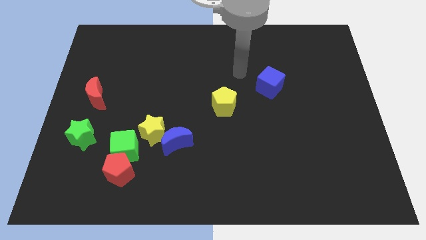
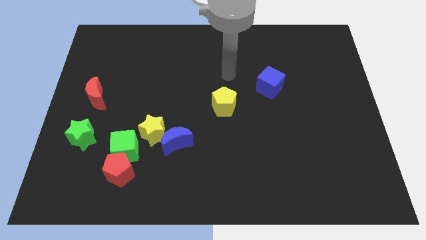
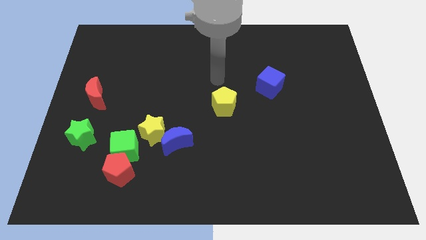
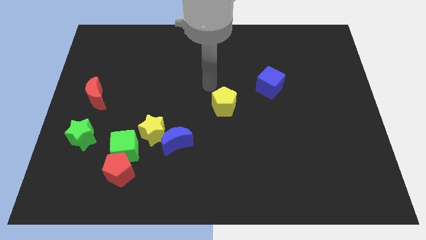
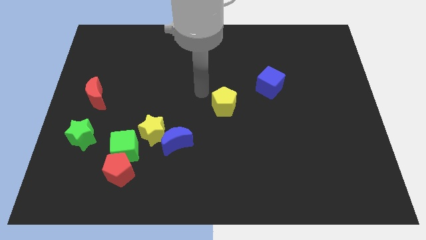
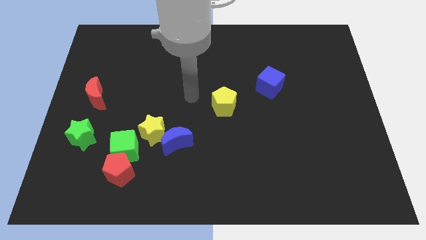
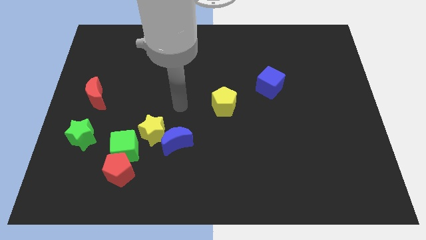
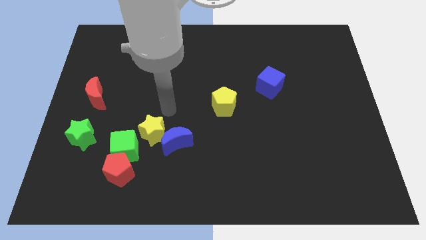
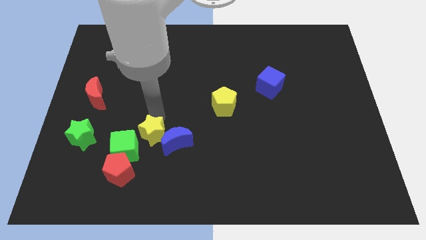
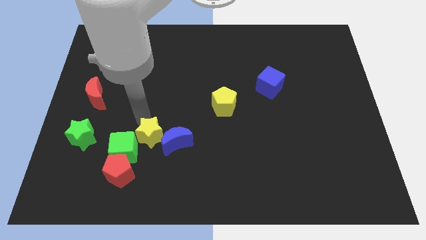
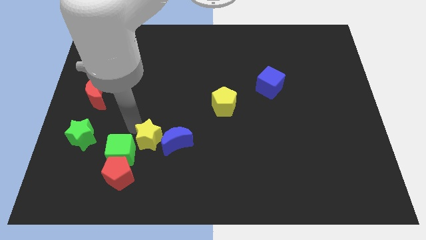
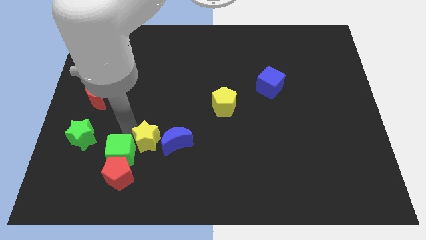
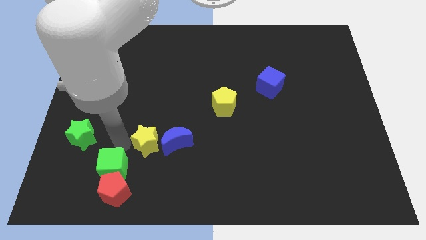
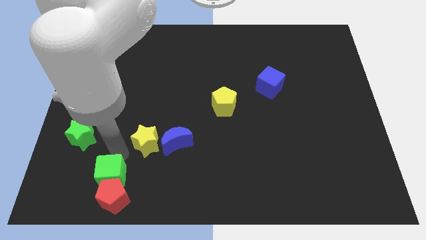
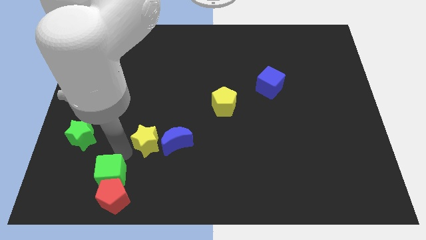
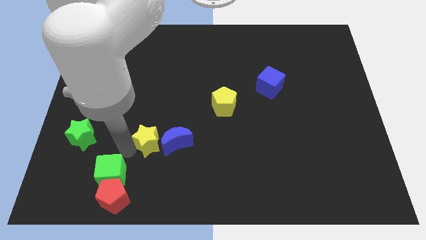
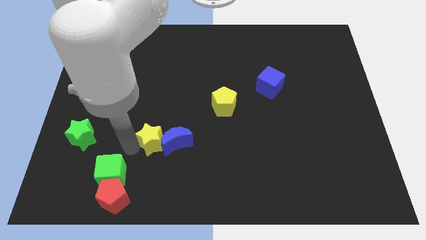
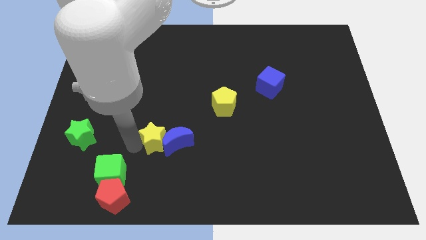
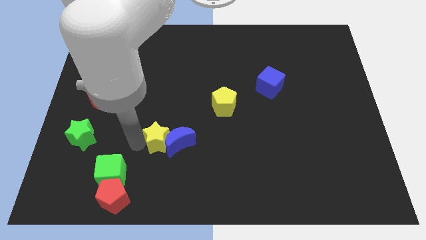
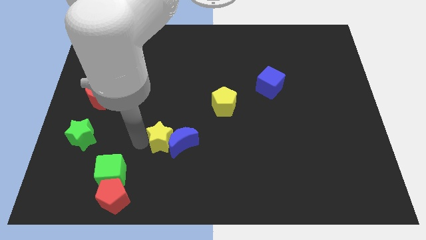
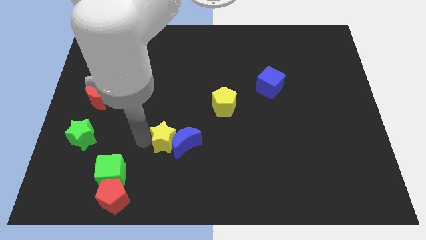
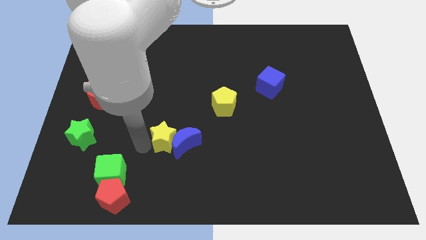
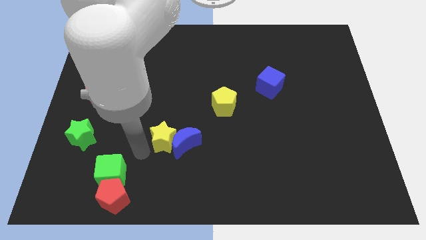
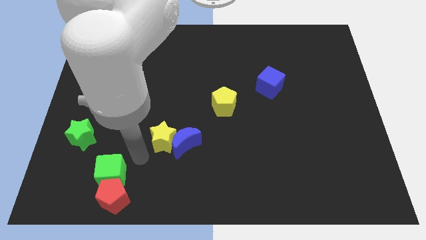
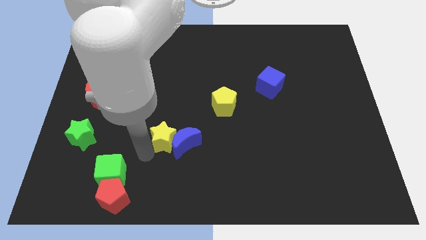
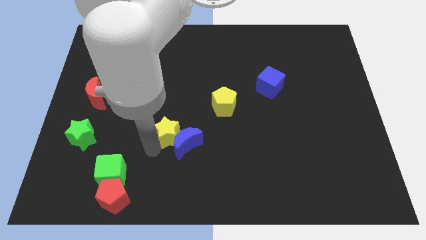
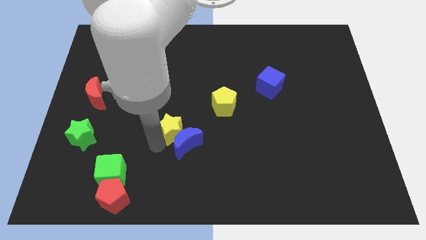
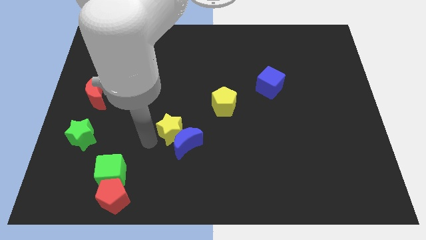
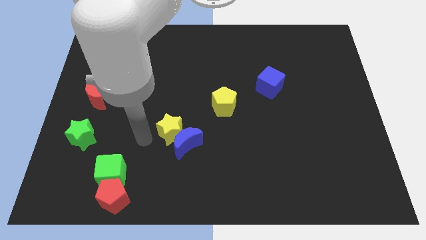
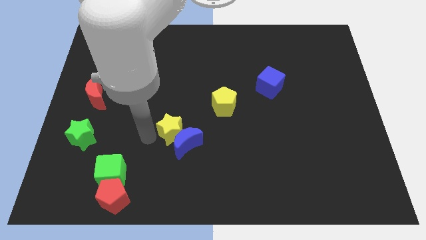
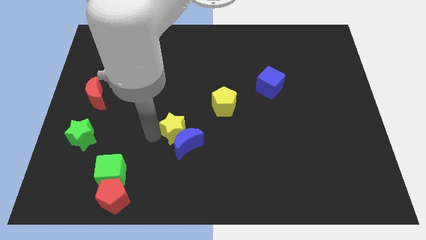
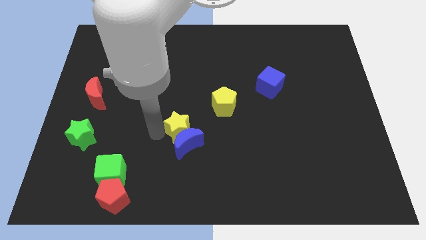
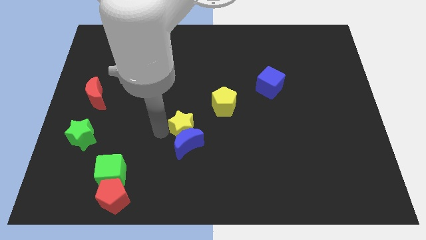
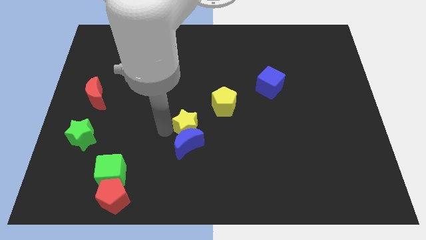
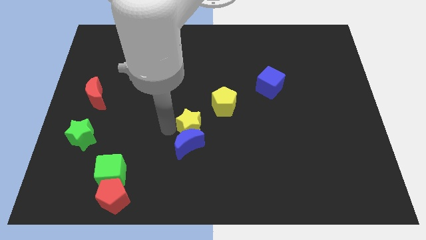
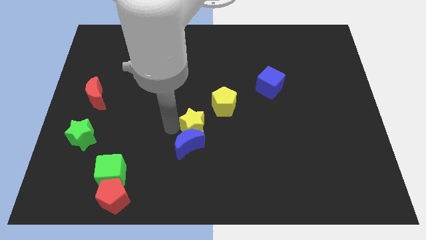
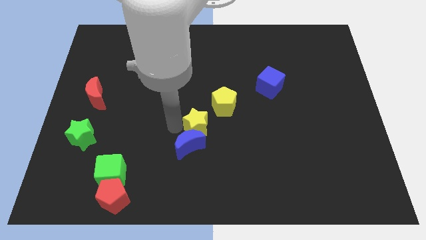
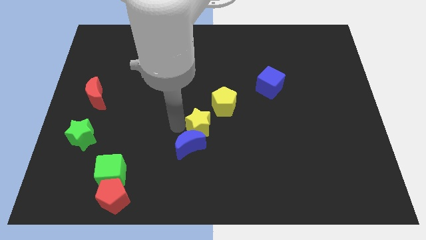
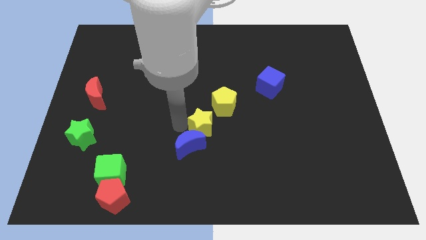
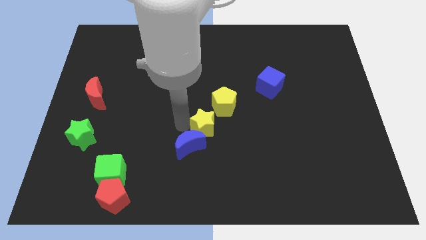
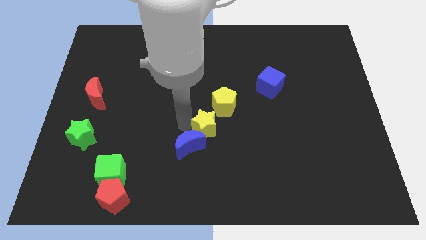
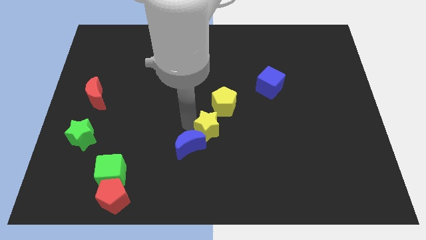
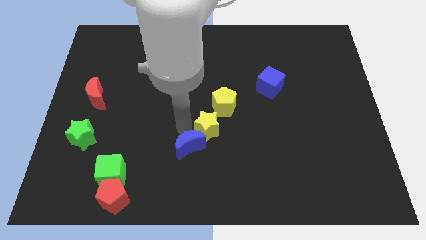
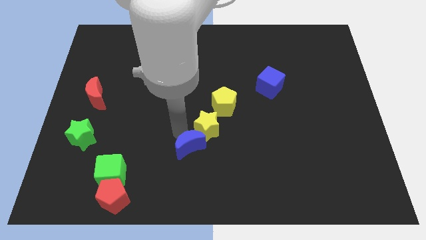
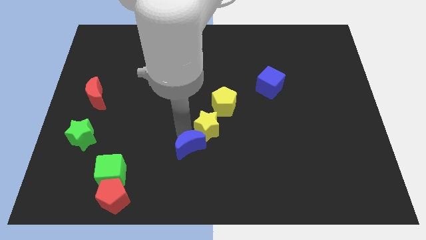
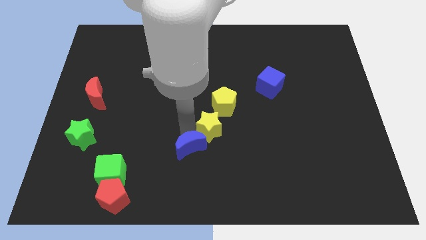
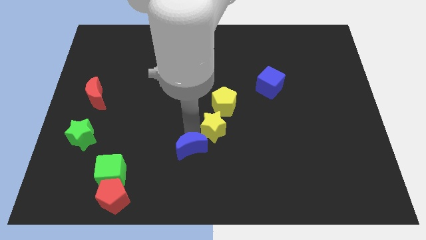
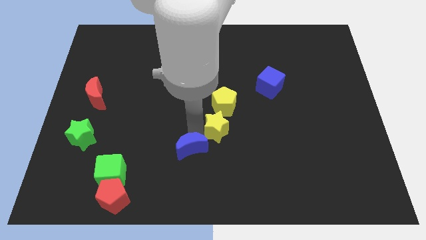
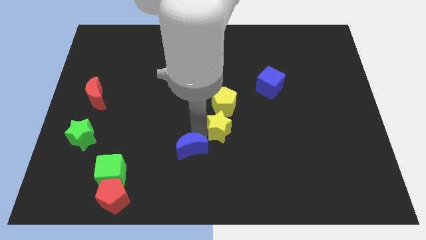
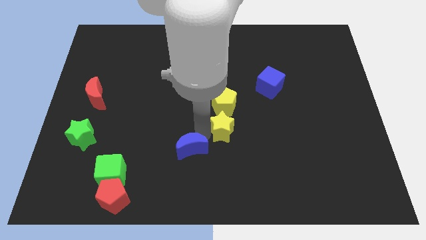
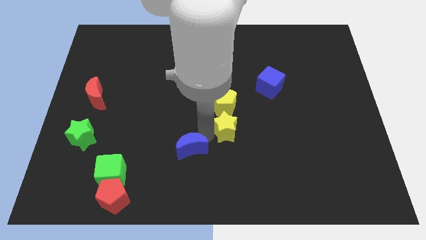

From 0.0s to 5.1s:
slide the yellow star to the bottom right of the yellow pentagon
